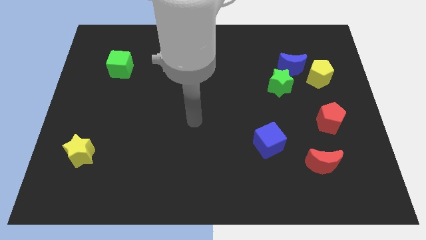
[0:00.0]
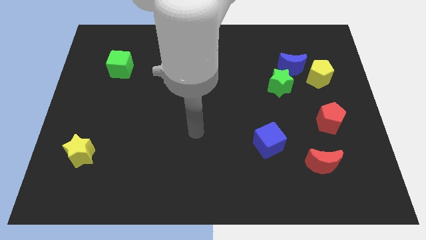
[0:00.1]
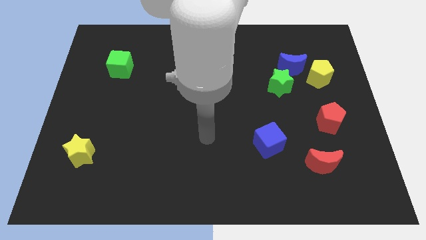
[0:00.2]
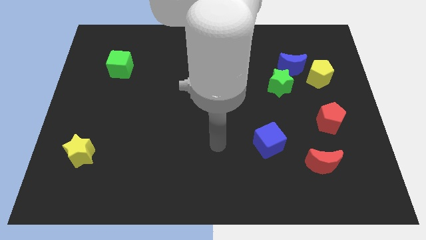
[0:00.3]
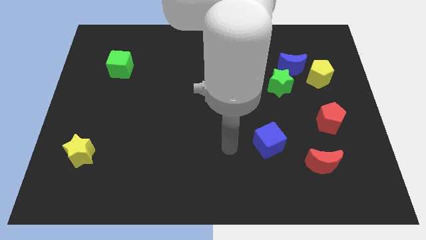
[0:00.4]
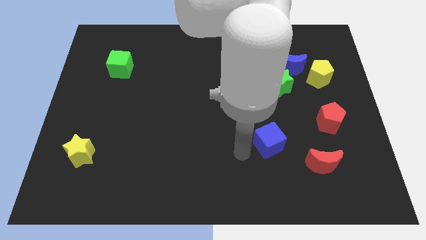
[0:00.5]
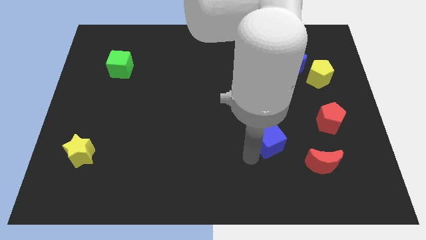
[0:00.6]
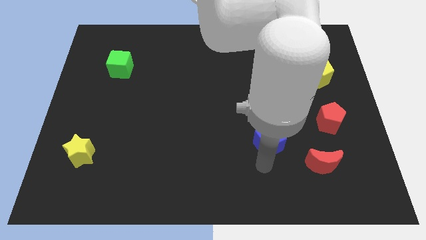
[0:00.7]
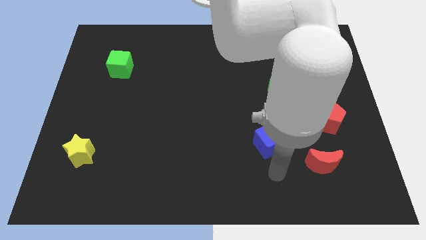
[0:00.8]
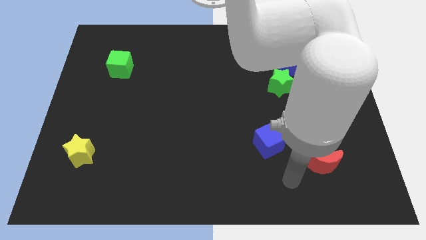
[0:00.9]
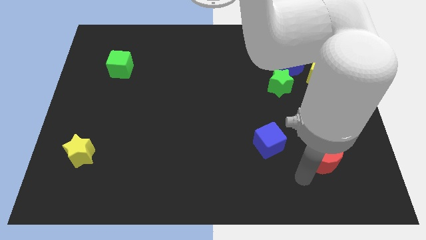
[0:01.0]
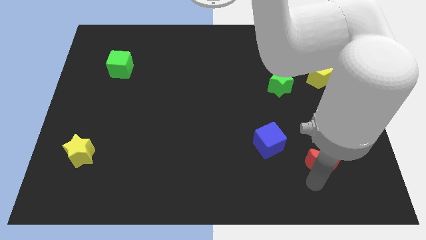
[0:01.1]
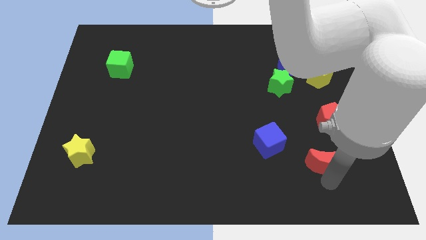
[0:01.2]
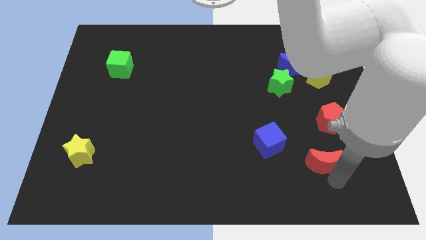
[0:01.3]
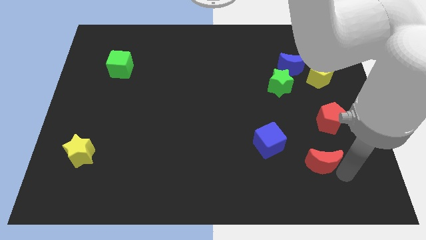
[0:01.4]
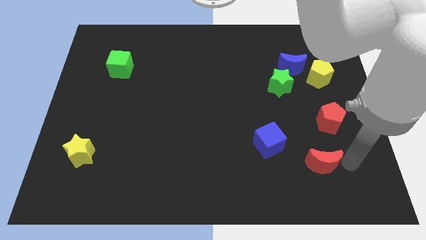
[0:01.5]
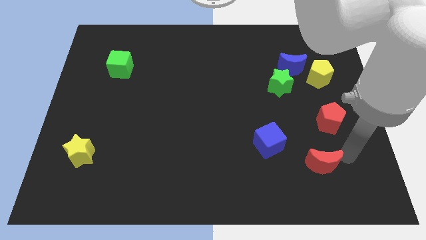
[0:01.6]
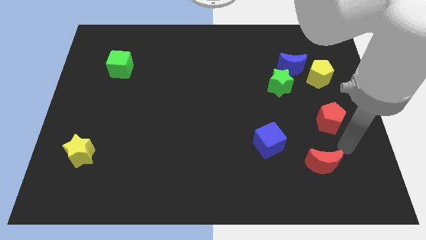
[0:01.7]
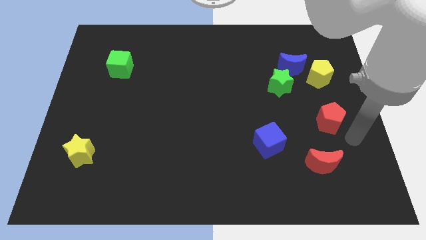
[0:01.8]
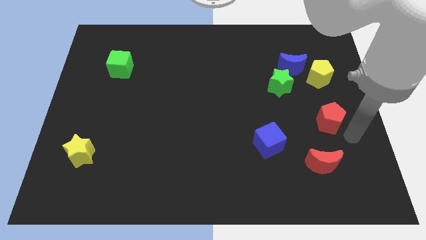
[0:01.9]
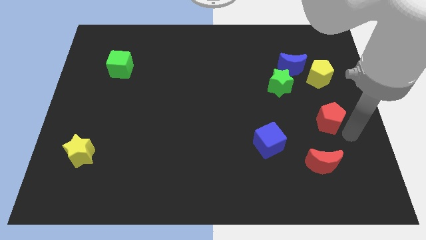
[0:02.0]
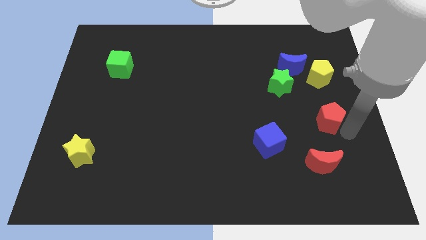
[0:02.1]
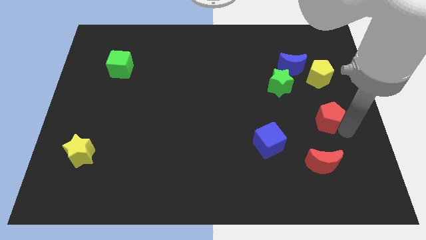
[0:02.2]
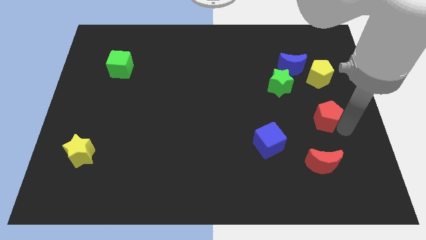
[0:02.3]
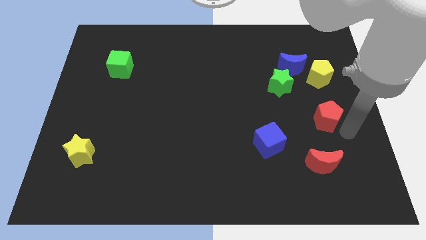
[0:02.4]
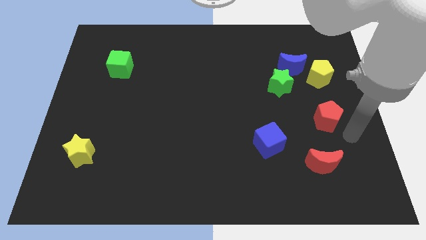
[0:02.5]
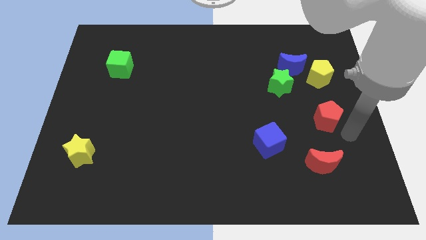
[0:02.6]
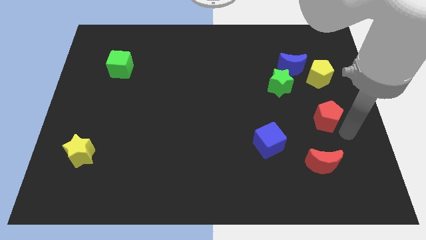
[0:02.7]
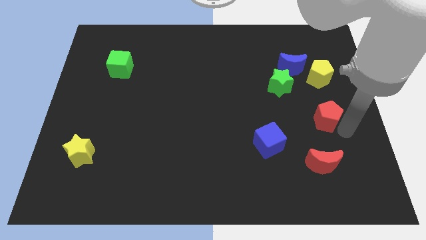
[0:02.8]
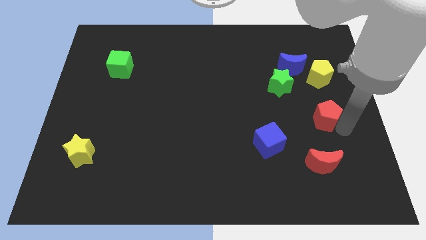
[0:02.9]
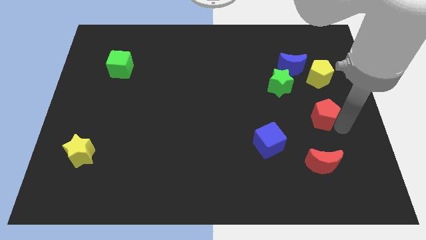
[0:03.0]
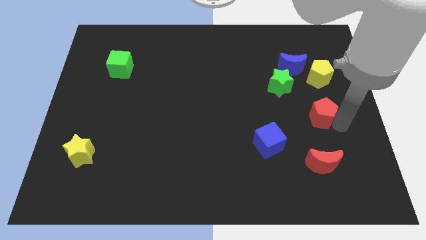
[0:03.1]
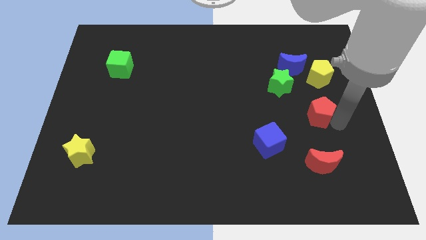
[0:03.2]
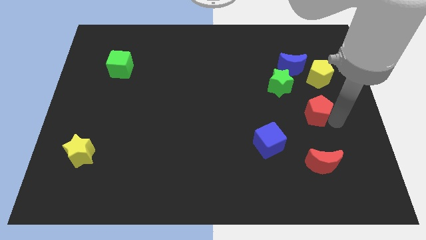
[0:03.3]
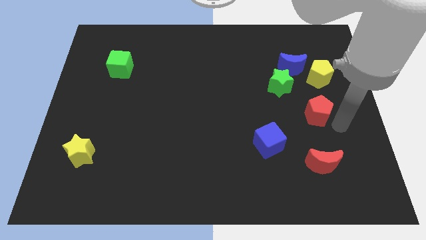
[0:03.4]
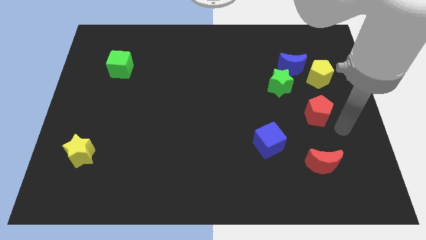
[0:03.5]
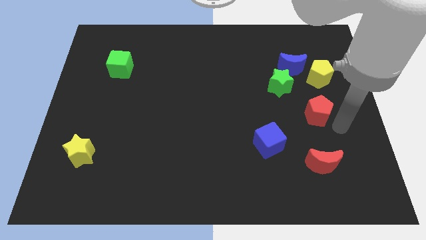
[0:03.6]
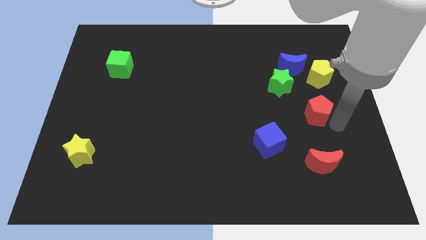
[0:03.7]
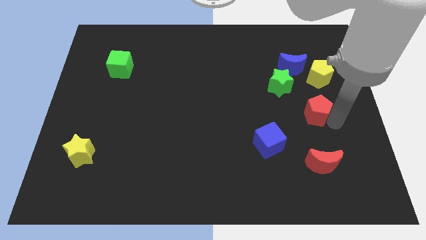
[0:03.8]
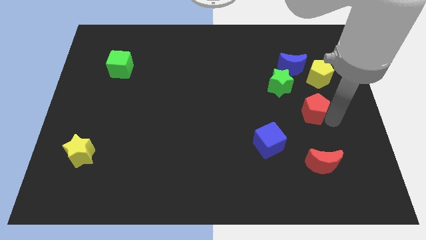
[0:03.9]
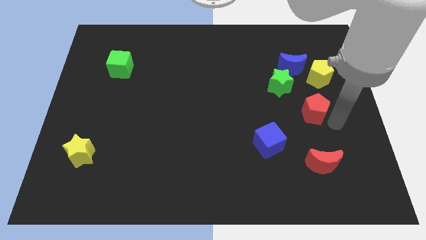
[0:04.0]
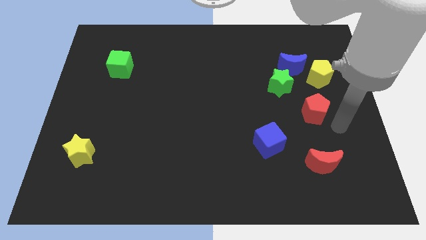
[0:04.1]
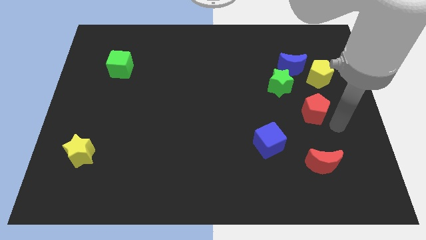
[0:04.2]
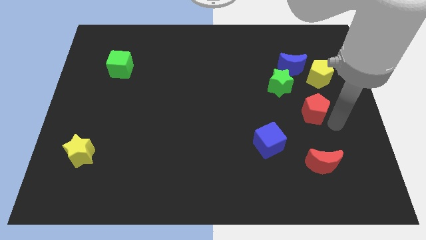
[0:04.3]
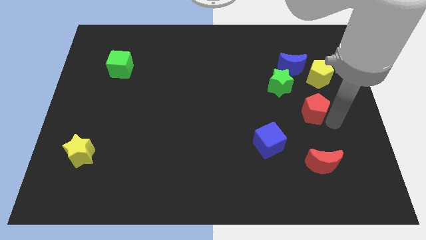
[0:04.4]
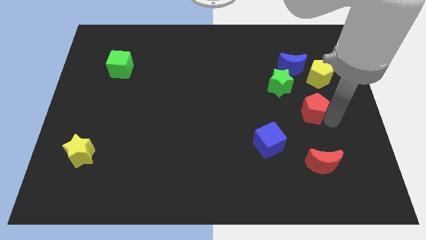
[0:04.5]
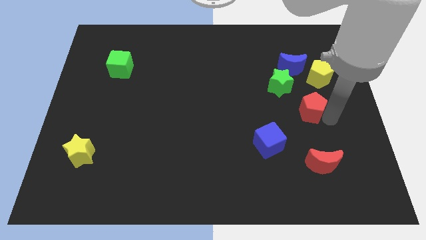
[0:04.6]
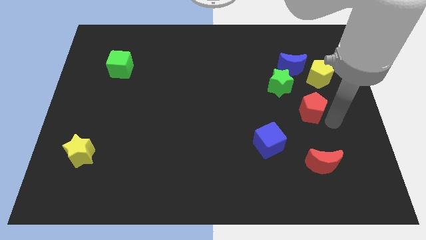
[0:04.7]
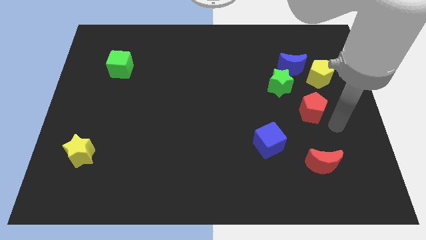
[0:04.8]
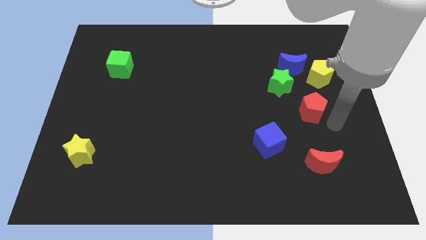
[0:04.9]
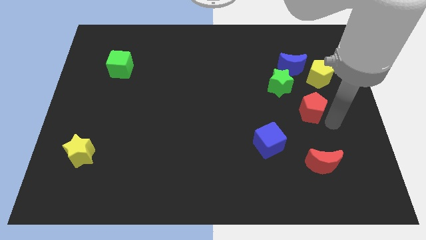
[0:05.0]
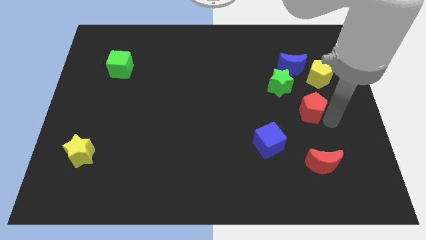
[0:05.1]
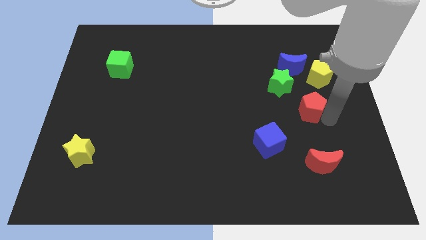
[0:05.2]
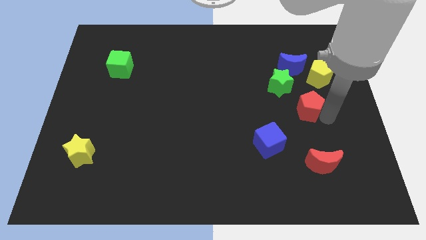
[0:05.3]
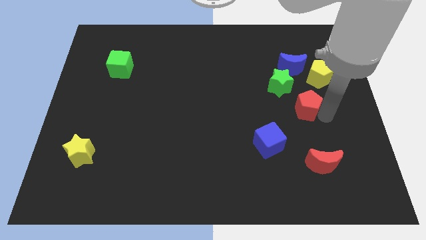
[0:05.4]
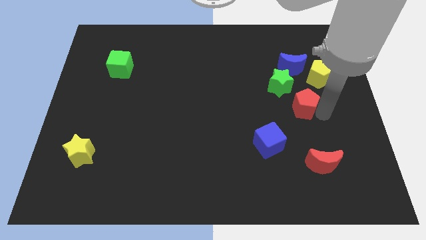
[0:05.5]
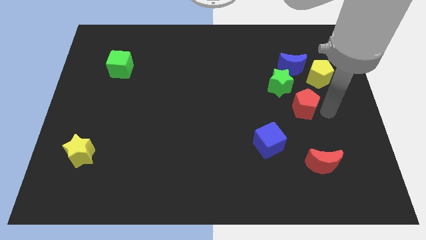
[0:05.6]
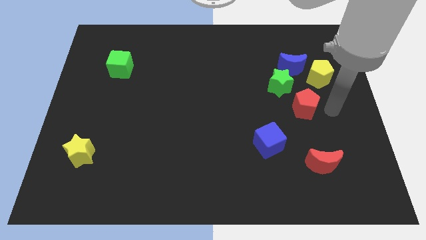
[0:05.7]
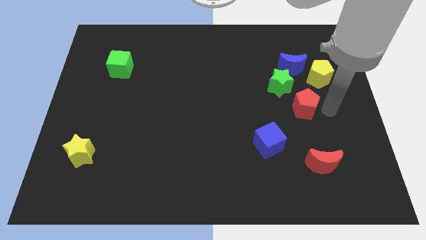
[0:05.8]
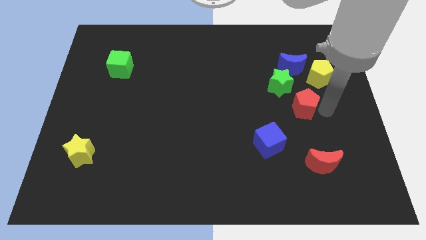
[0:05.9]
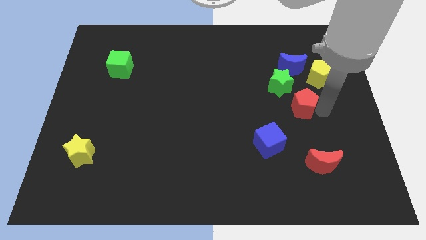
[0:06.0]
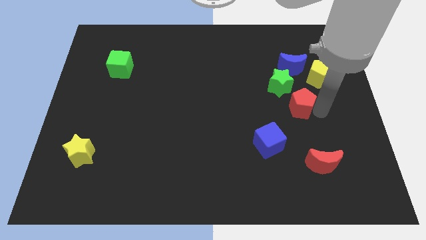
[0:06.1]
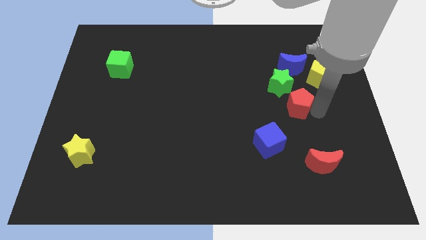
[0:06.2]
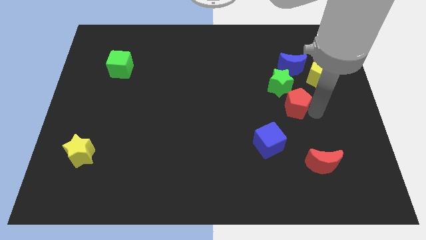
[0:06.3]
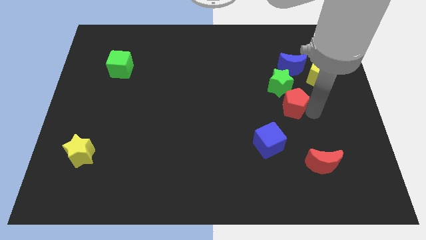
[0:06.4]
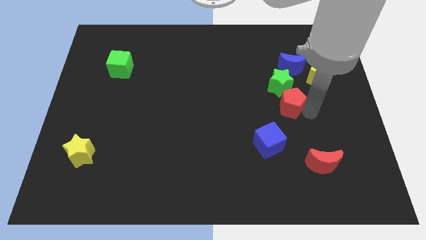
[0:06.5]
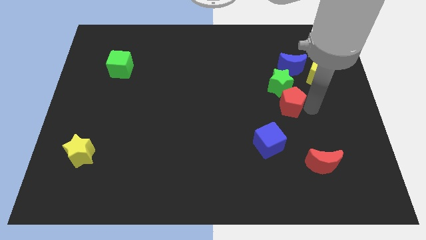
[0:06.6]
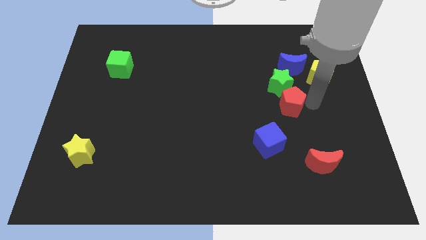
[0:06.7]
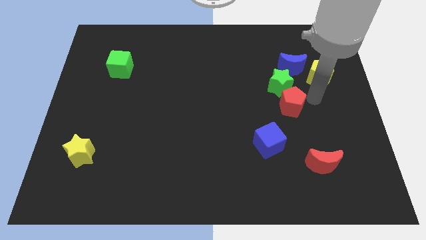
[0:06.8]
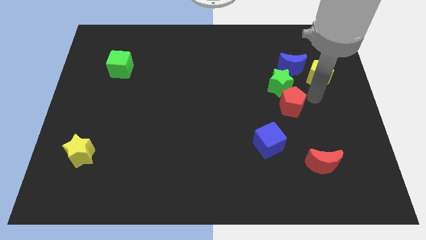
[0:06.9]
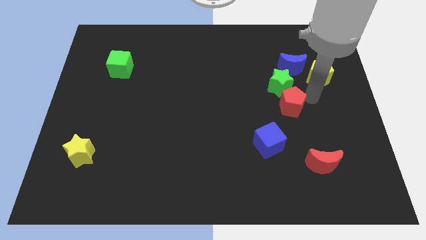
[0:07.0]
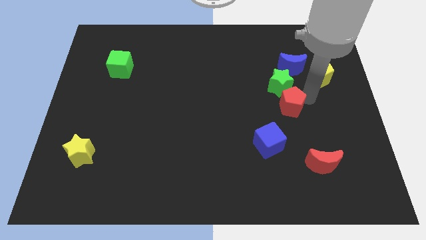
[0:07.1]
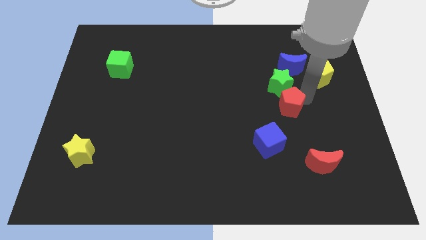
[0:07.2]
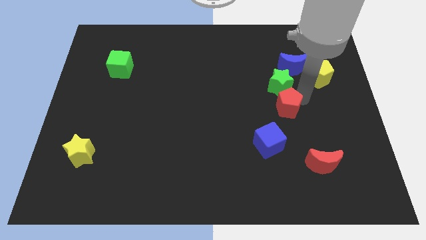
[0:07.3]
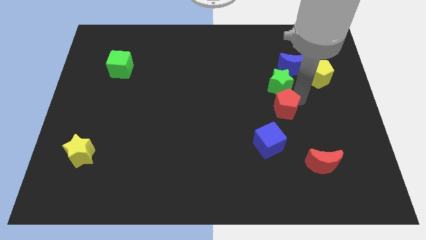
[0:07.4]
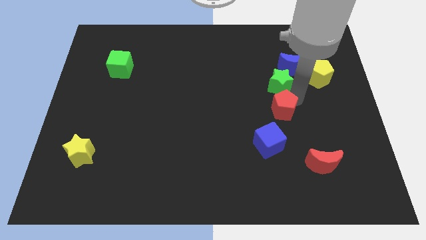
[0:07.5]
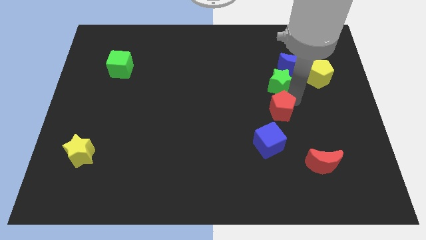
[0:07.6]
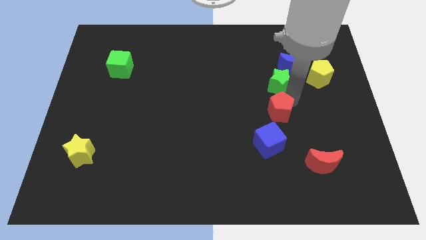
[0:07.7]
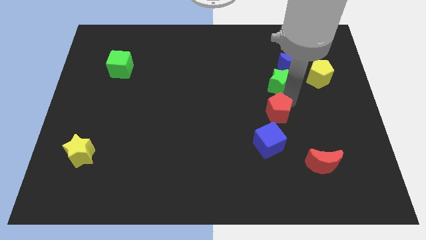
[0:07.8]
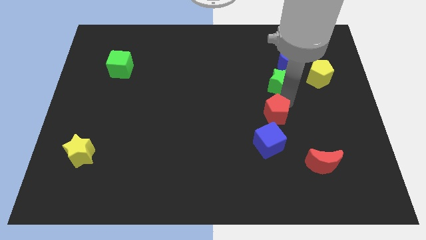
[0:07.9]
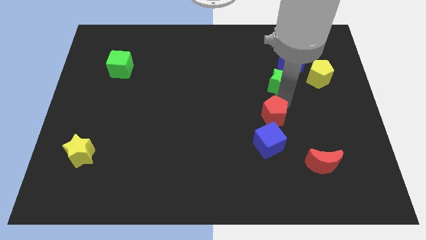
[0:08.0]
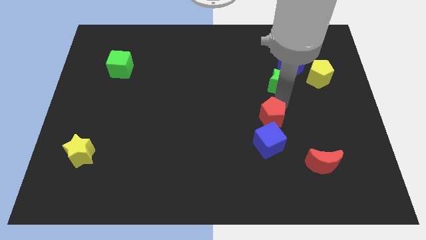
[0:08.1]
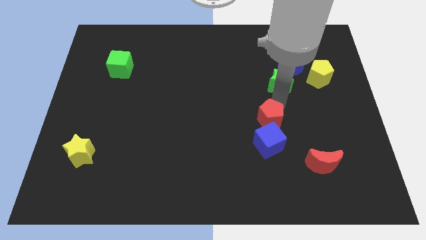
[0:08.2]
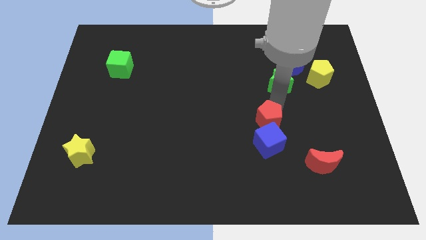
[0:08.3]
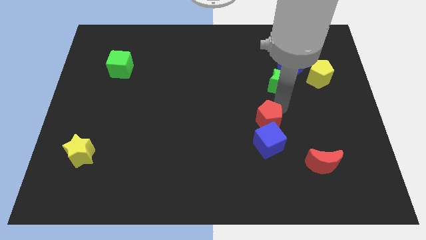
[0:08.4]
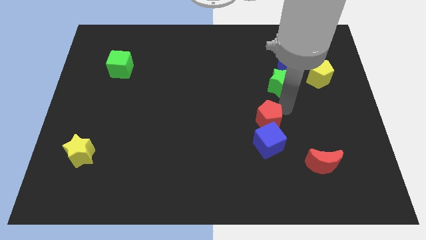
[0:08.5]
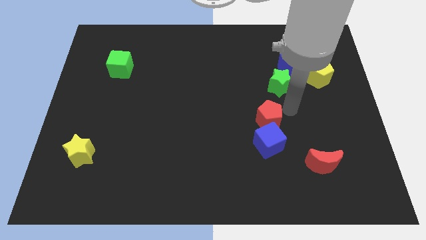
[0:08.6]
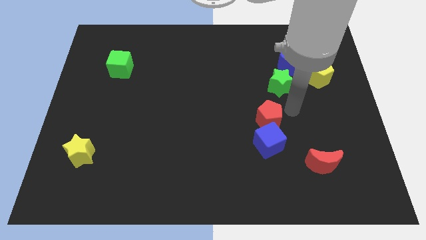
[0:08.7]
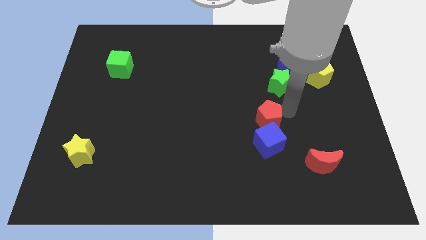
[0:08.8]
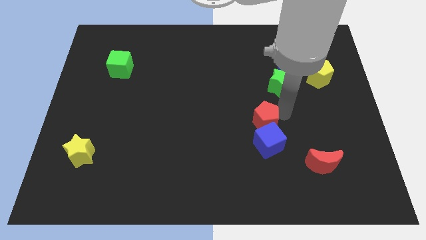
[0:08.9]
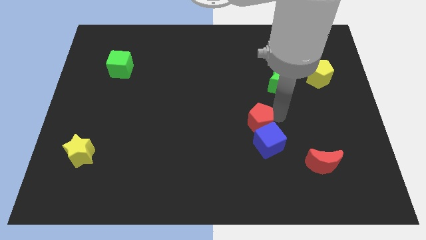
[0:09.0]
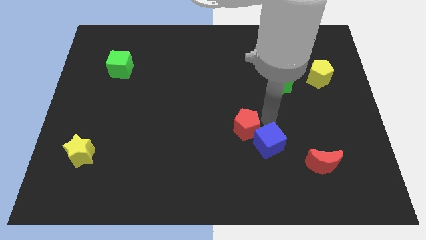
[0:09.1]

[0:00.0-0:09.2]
push the red pentagon just left of the blue cube
